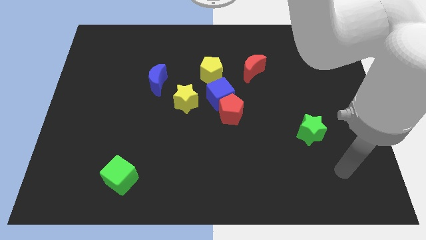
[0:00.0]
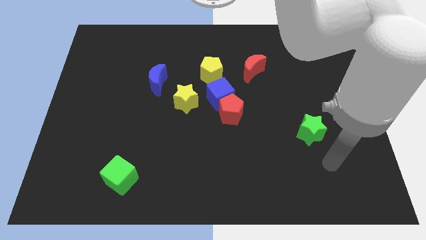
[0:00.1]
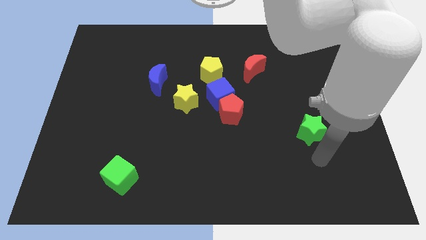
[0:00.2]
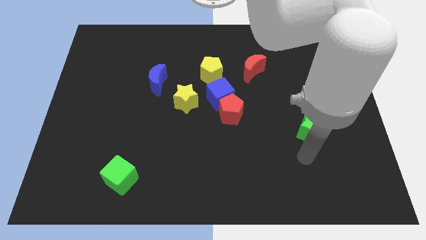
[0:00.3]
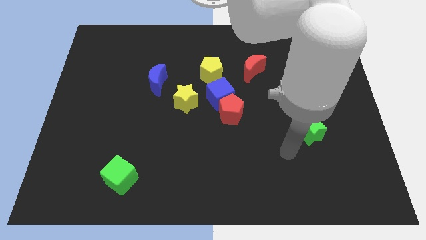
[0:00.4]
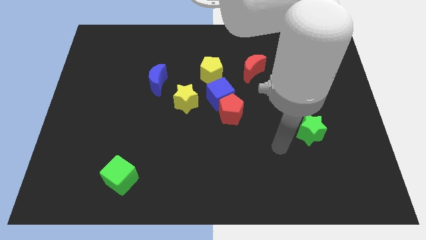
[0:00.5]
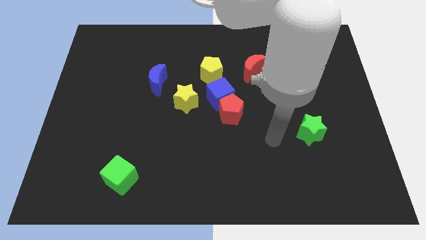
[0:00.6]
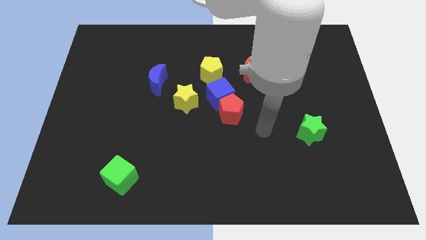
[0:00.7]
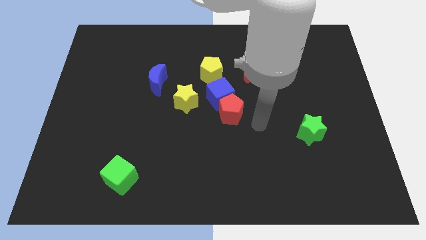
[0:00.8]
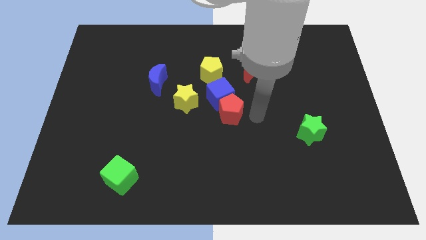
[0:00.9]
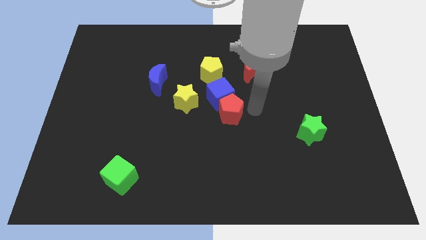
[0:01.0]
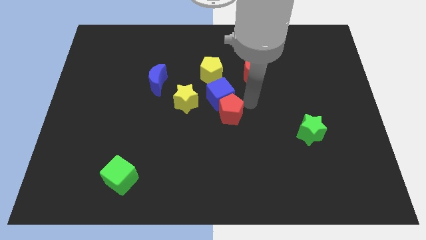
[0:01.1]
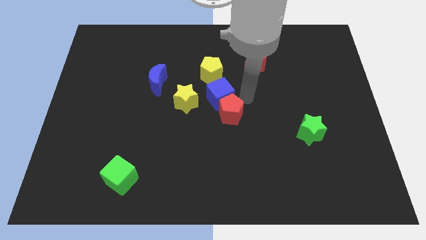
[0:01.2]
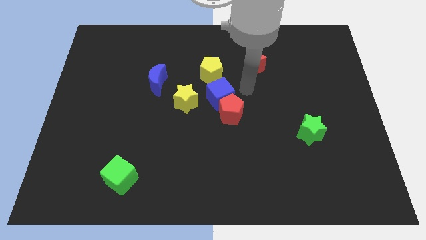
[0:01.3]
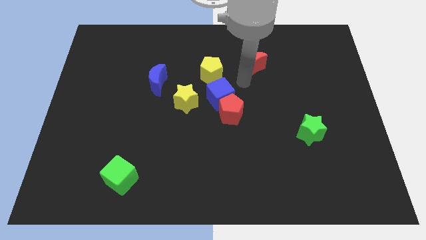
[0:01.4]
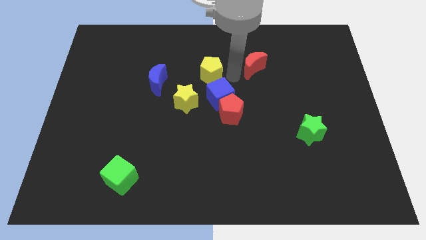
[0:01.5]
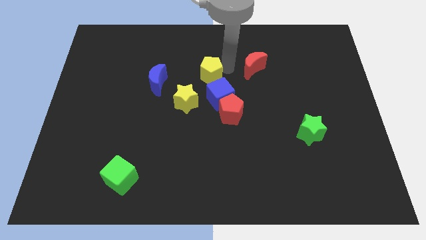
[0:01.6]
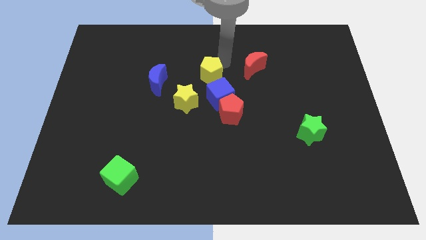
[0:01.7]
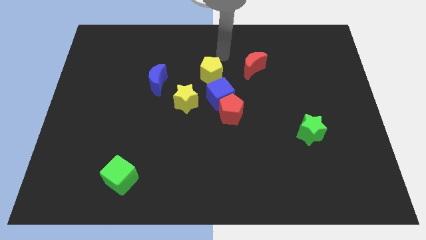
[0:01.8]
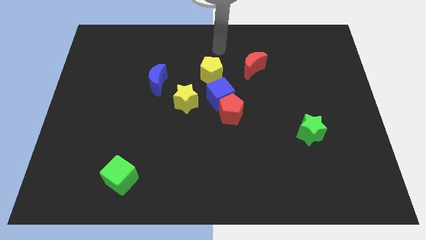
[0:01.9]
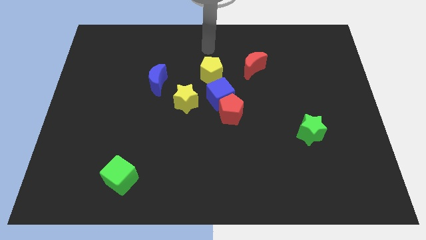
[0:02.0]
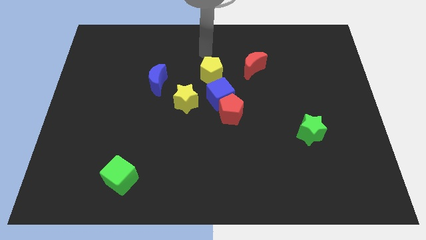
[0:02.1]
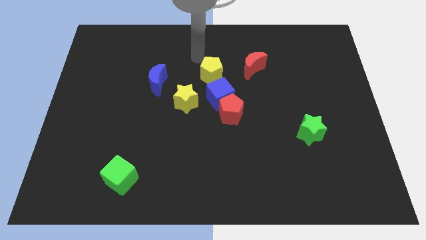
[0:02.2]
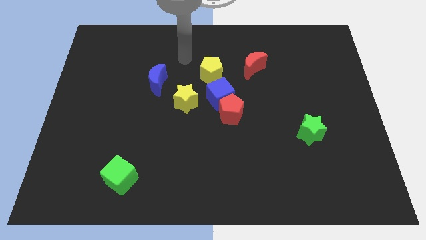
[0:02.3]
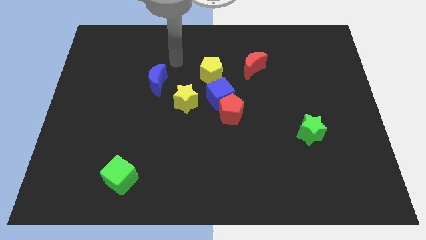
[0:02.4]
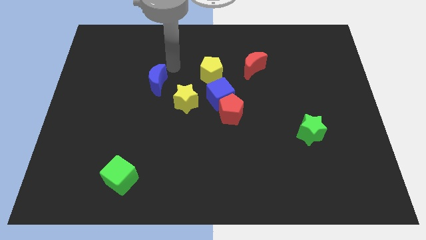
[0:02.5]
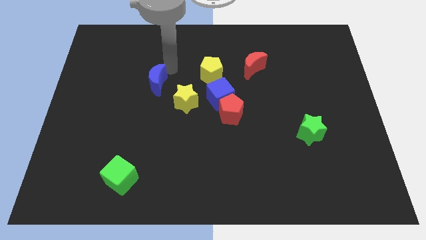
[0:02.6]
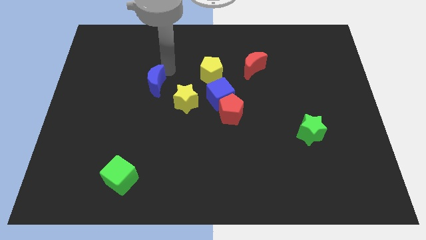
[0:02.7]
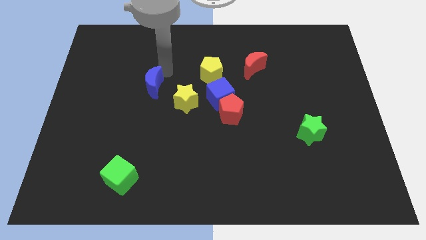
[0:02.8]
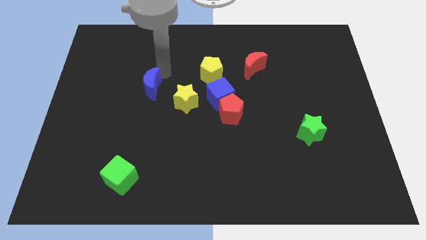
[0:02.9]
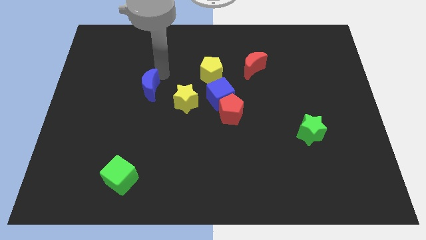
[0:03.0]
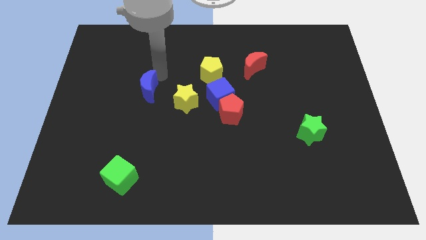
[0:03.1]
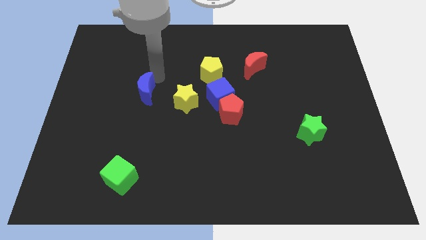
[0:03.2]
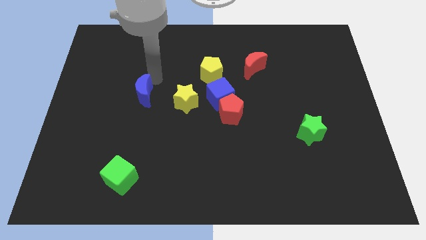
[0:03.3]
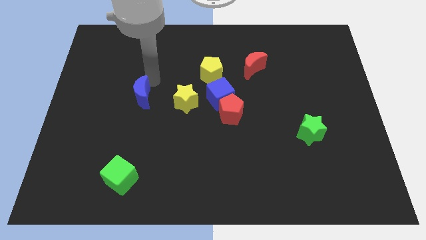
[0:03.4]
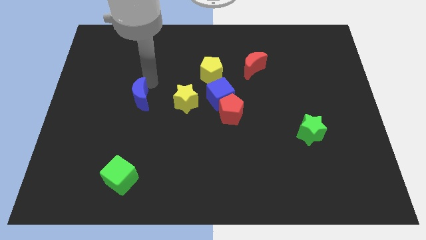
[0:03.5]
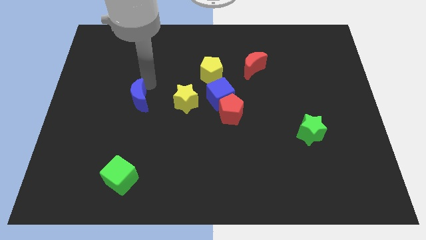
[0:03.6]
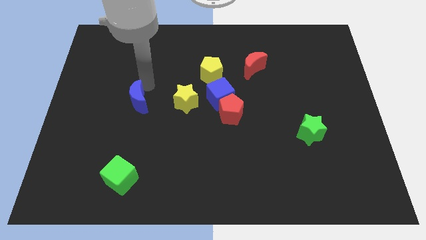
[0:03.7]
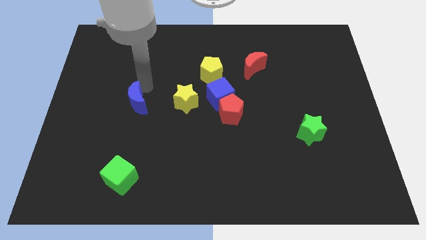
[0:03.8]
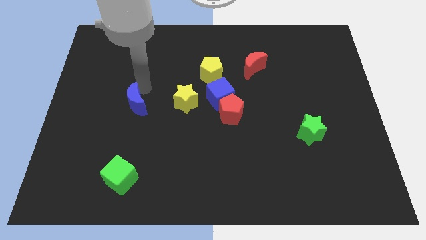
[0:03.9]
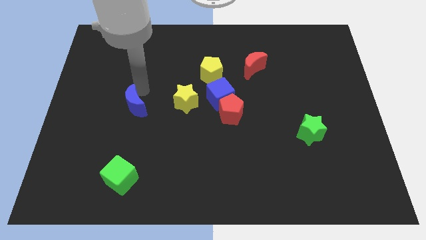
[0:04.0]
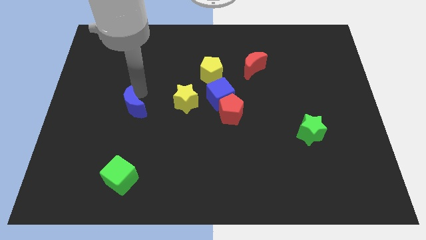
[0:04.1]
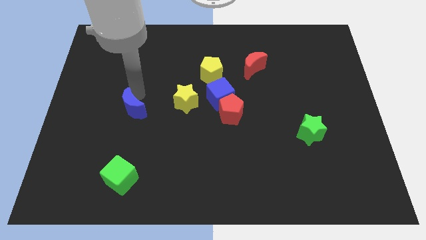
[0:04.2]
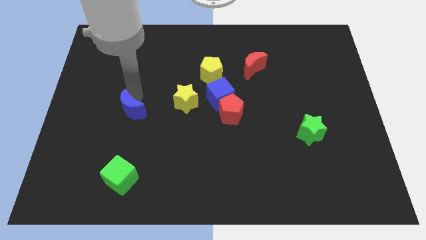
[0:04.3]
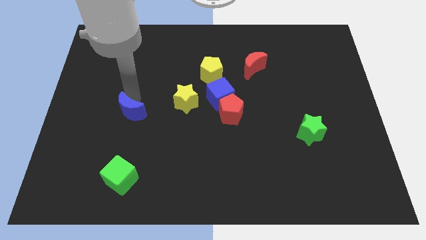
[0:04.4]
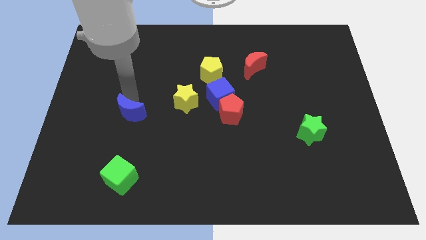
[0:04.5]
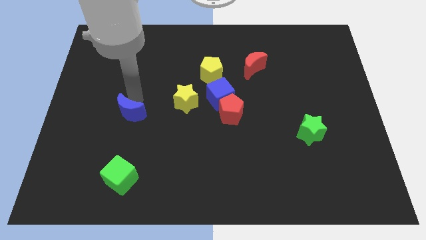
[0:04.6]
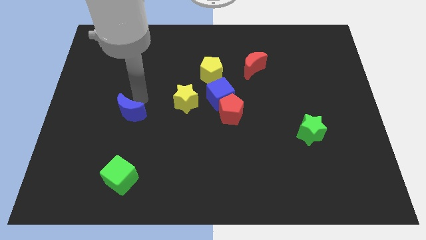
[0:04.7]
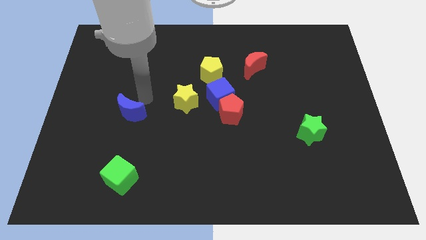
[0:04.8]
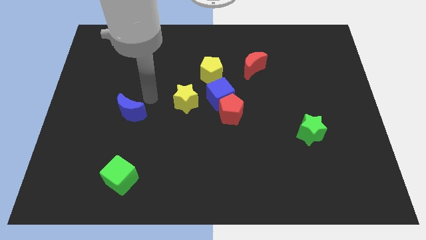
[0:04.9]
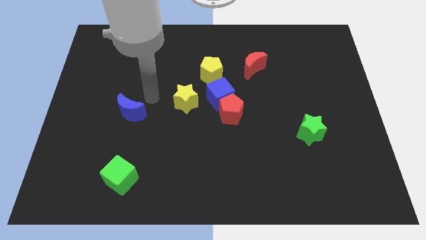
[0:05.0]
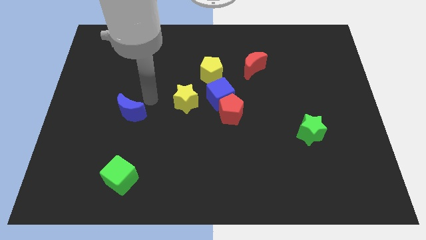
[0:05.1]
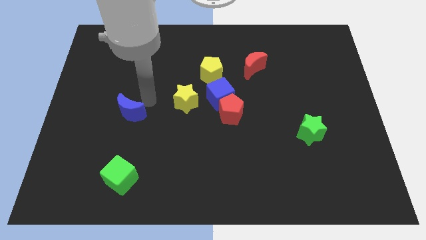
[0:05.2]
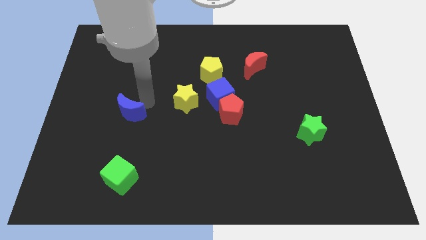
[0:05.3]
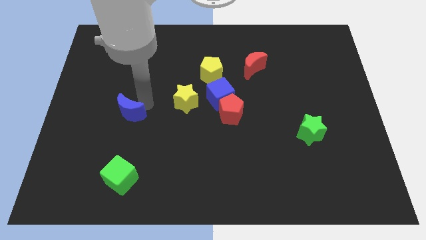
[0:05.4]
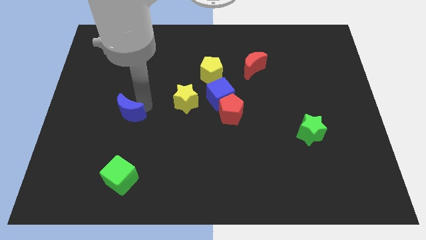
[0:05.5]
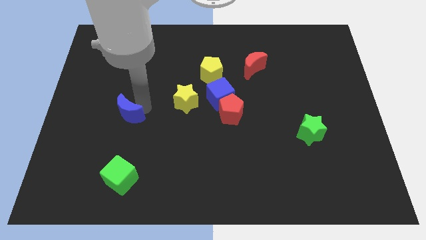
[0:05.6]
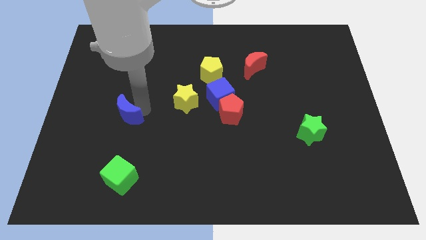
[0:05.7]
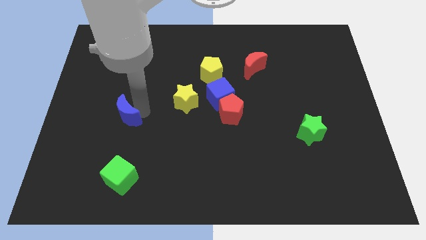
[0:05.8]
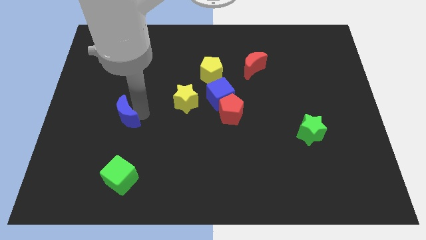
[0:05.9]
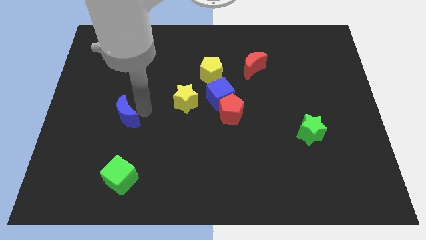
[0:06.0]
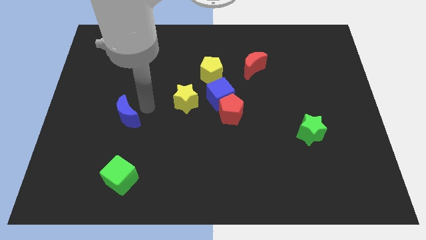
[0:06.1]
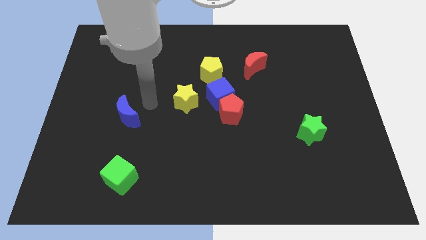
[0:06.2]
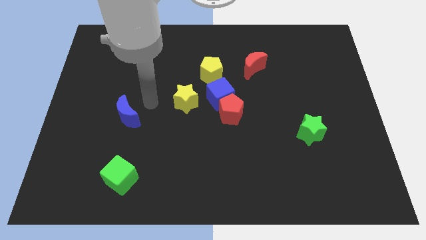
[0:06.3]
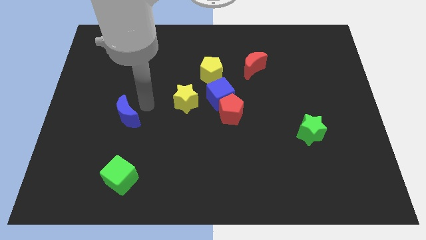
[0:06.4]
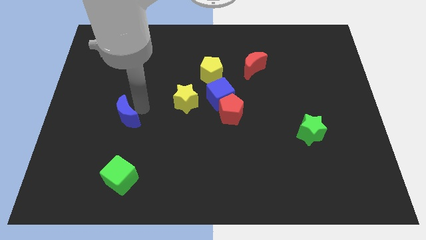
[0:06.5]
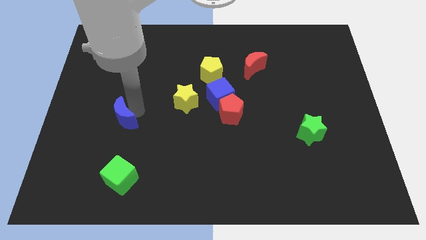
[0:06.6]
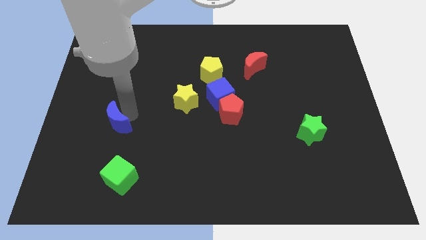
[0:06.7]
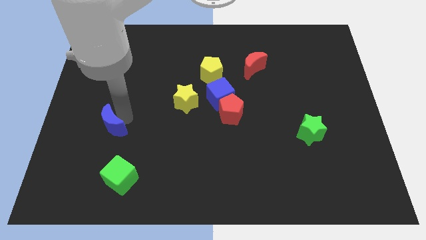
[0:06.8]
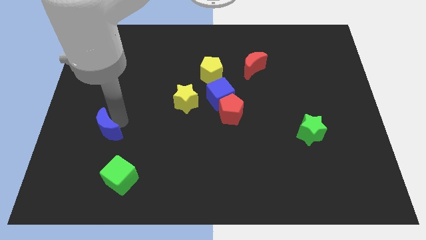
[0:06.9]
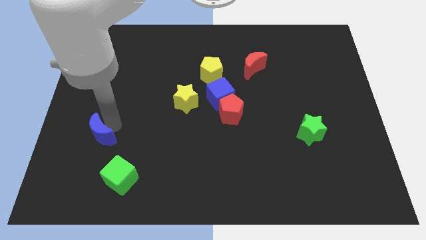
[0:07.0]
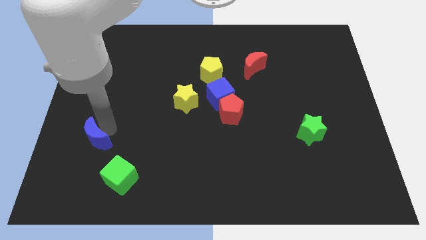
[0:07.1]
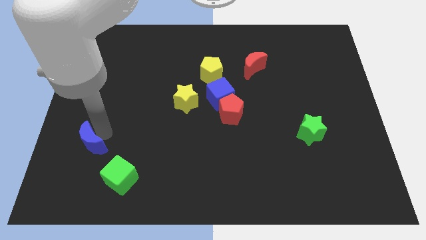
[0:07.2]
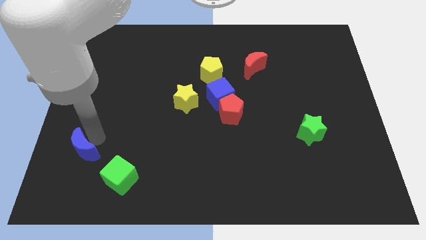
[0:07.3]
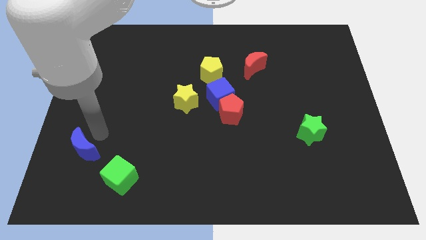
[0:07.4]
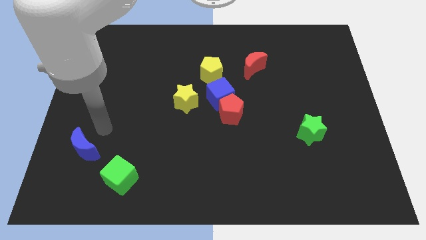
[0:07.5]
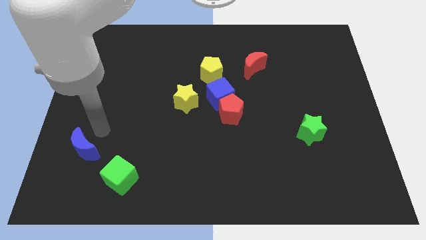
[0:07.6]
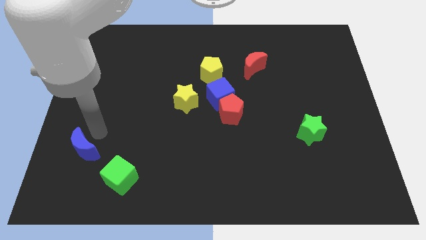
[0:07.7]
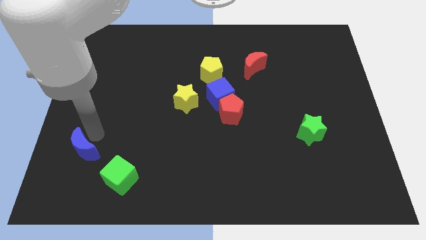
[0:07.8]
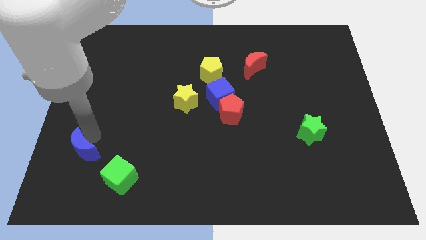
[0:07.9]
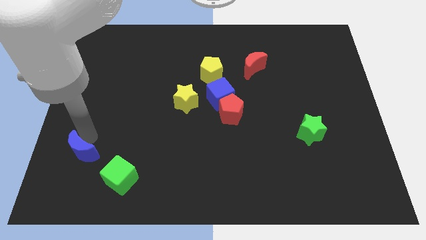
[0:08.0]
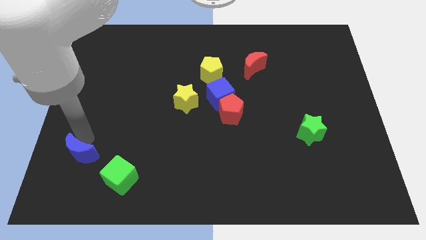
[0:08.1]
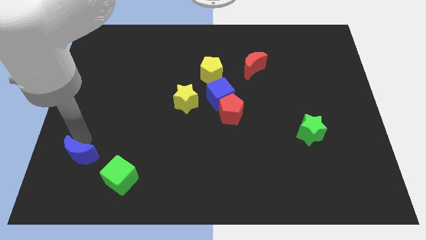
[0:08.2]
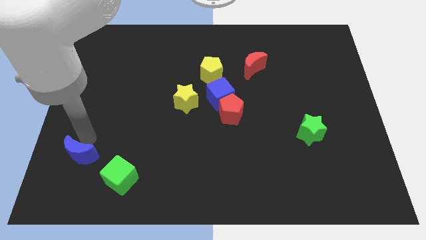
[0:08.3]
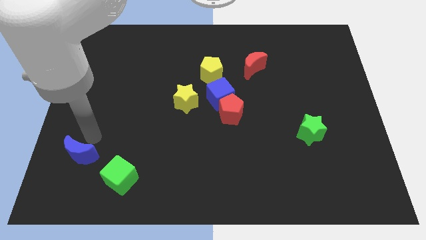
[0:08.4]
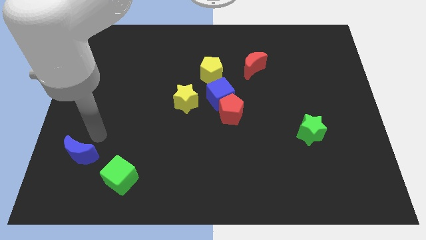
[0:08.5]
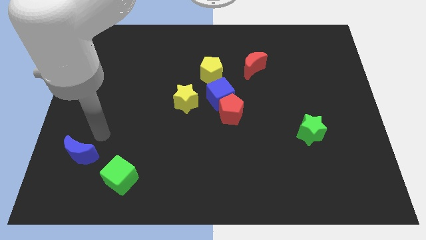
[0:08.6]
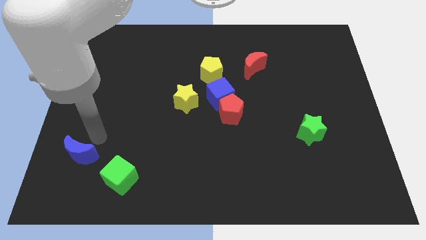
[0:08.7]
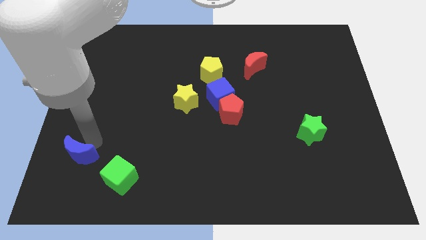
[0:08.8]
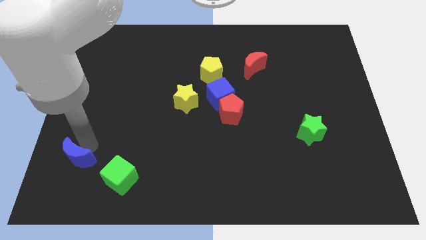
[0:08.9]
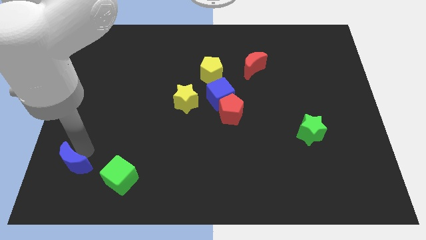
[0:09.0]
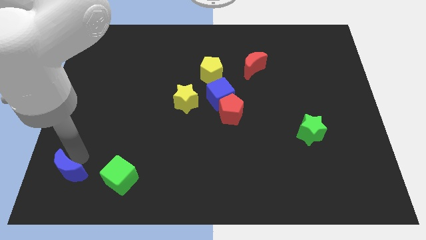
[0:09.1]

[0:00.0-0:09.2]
move the blue moon to the lower left corner
